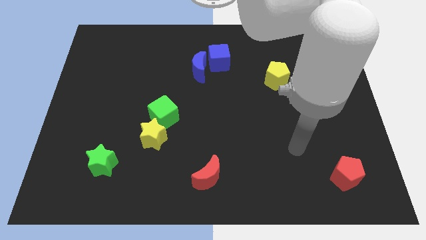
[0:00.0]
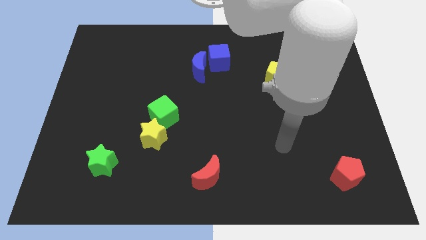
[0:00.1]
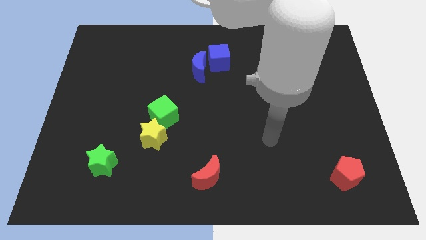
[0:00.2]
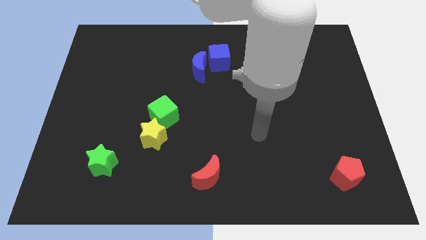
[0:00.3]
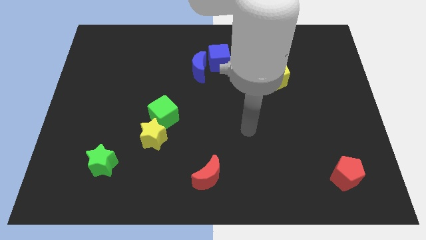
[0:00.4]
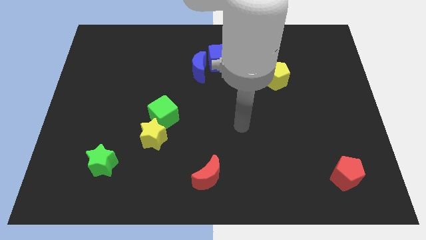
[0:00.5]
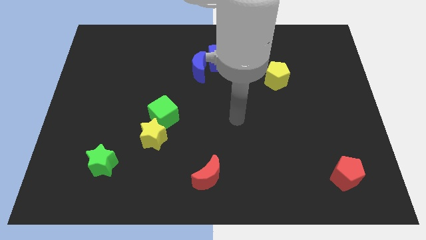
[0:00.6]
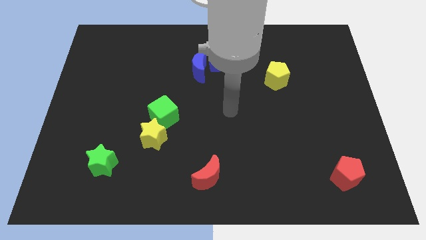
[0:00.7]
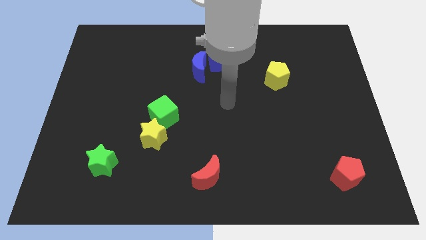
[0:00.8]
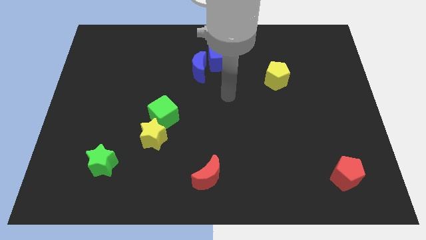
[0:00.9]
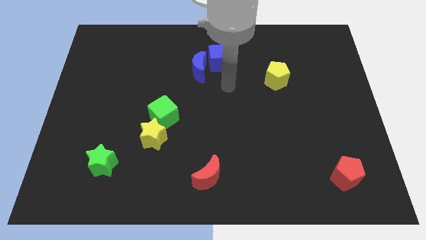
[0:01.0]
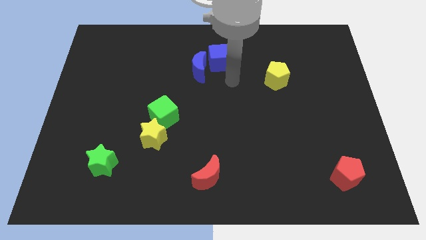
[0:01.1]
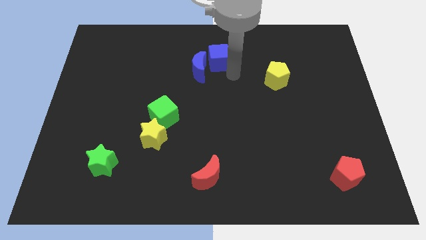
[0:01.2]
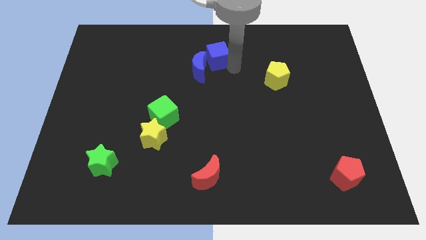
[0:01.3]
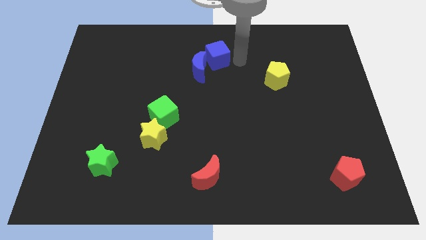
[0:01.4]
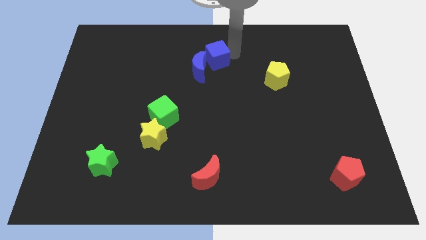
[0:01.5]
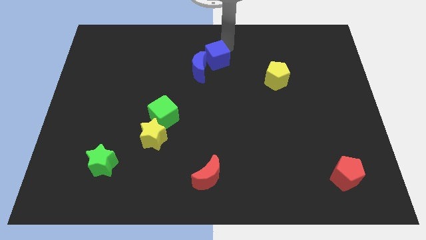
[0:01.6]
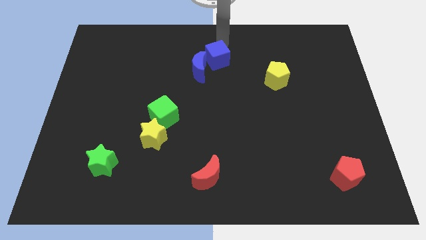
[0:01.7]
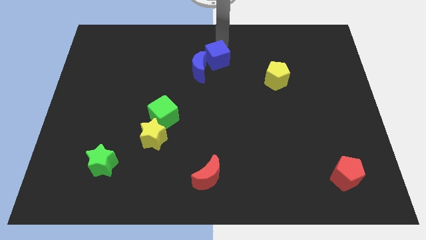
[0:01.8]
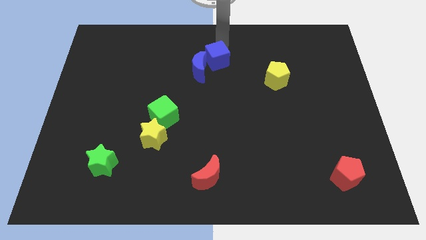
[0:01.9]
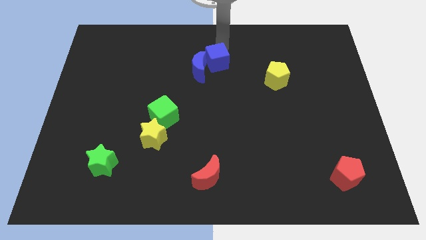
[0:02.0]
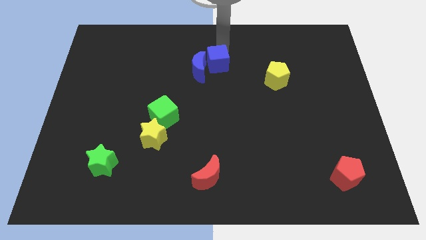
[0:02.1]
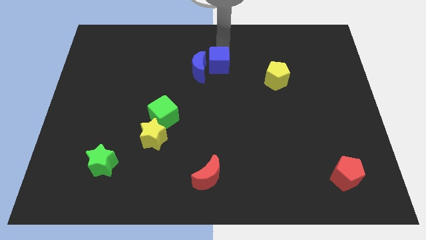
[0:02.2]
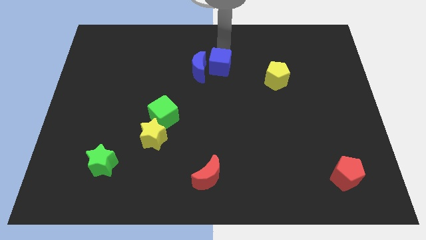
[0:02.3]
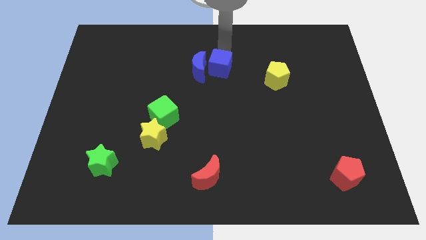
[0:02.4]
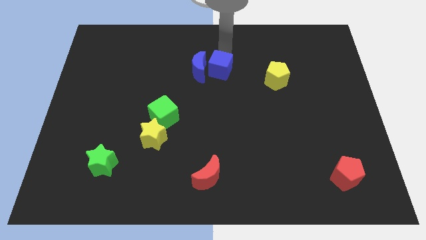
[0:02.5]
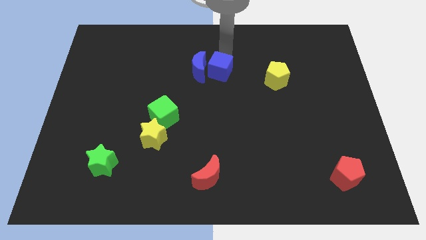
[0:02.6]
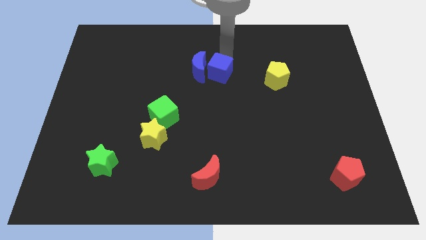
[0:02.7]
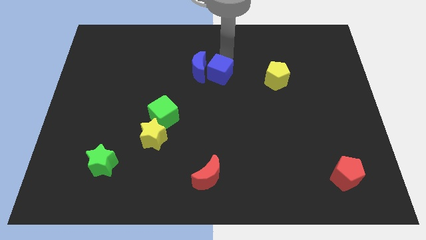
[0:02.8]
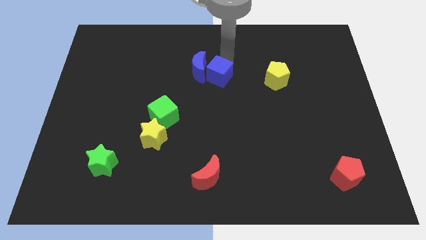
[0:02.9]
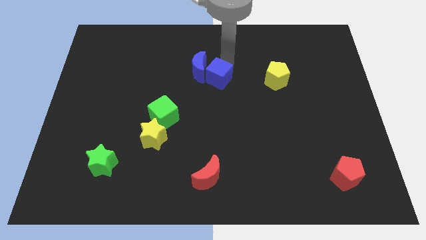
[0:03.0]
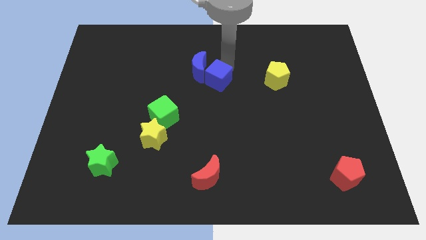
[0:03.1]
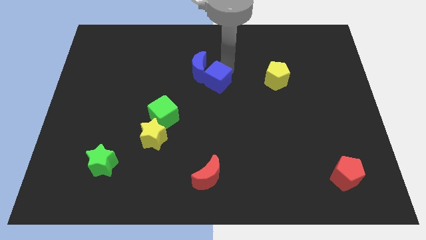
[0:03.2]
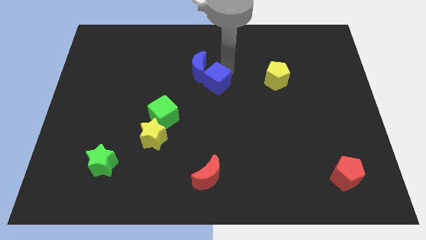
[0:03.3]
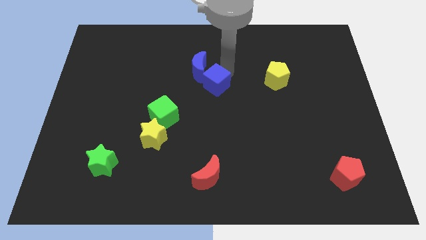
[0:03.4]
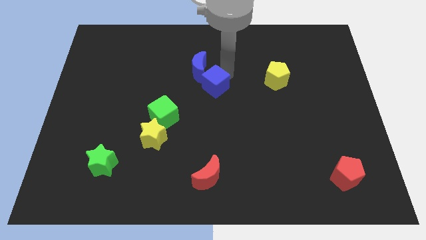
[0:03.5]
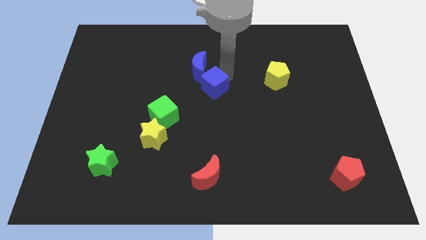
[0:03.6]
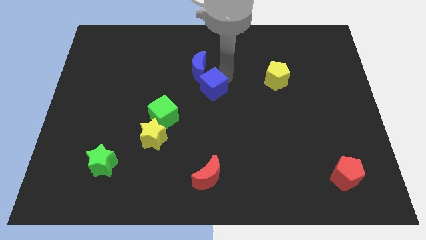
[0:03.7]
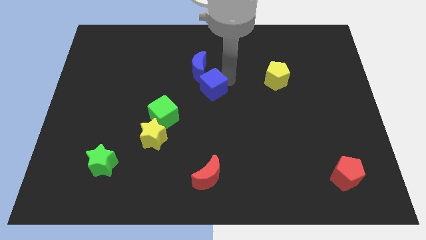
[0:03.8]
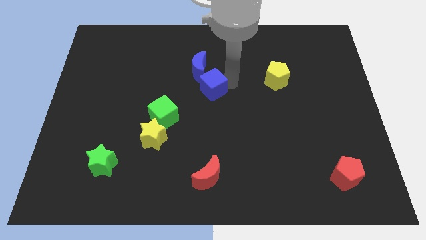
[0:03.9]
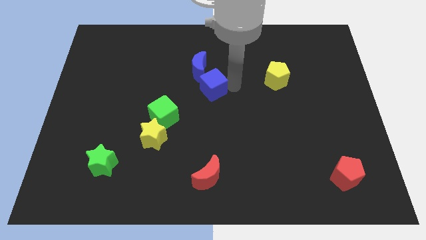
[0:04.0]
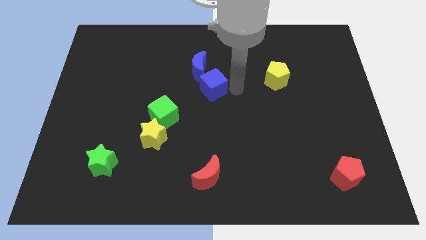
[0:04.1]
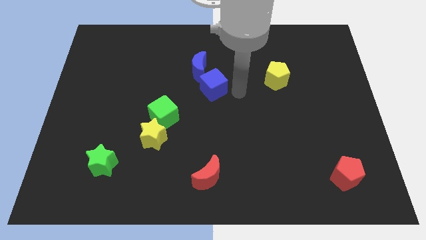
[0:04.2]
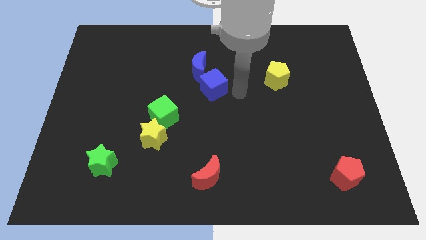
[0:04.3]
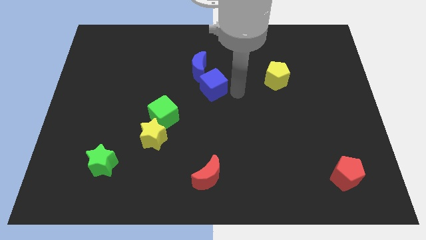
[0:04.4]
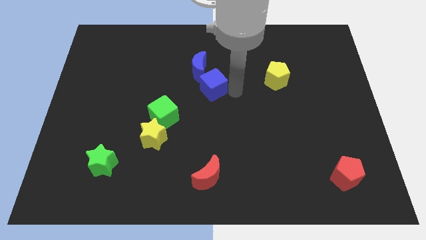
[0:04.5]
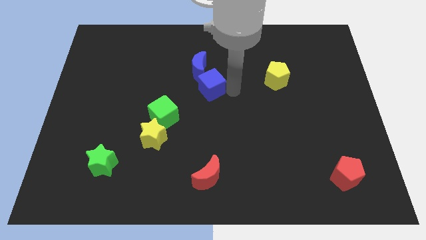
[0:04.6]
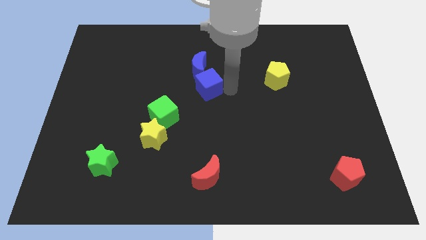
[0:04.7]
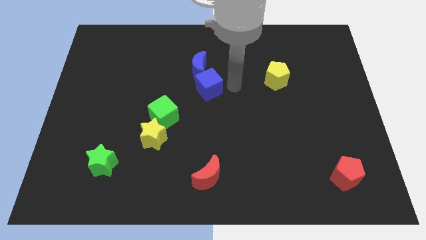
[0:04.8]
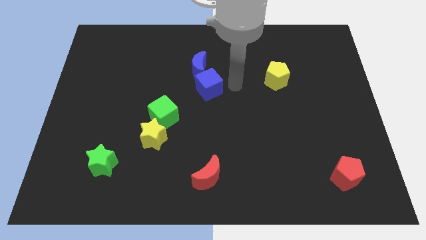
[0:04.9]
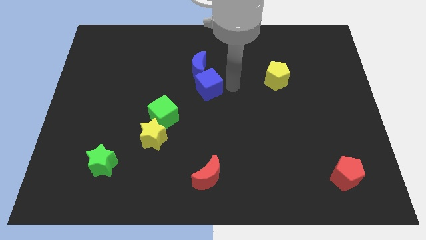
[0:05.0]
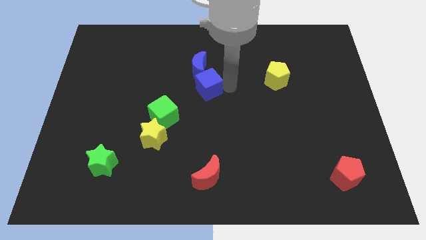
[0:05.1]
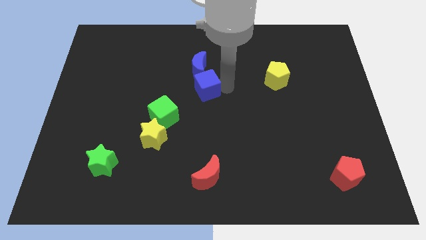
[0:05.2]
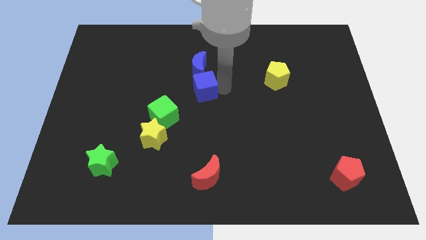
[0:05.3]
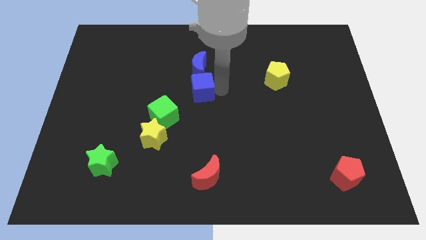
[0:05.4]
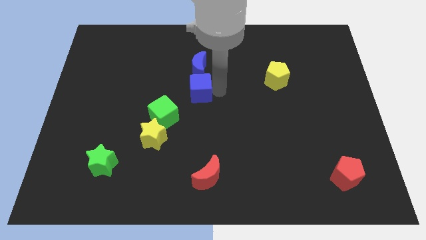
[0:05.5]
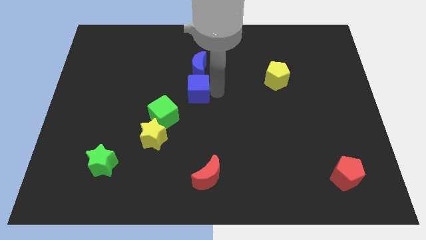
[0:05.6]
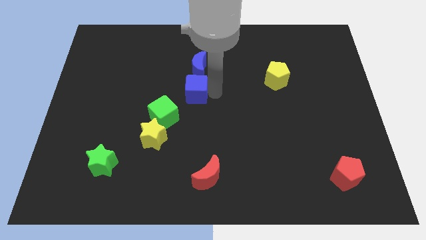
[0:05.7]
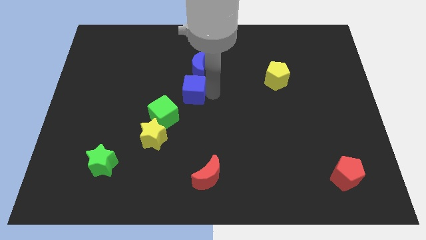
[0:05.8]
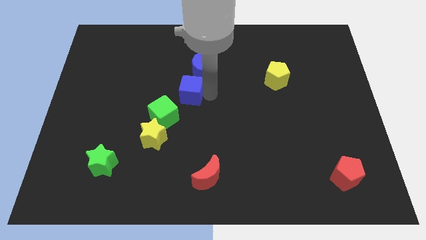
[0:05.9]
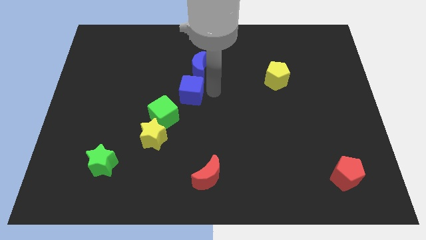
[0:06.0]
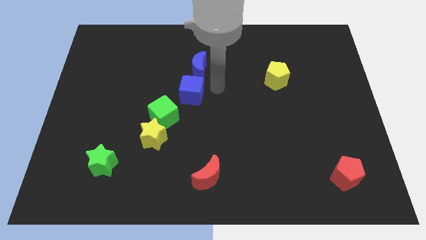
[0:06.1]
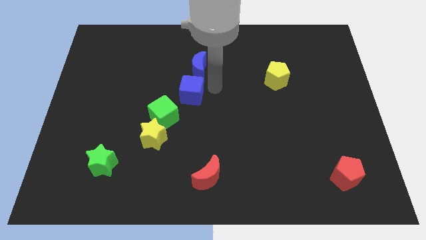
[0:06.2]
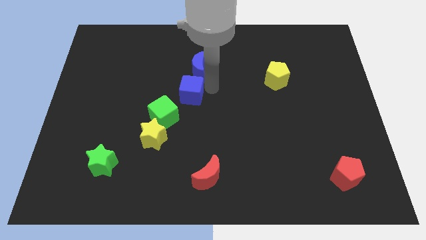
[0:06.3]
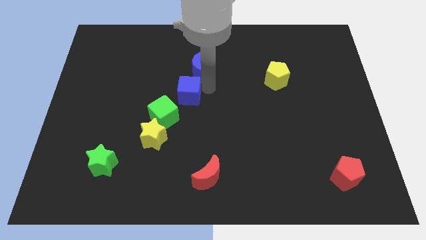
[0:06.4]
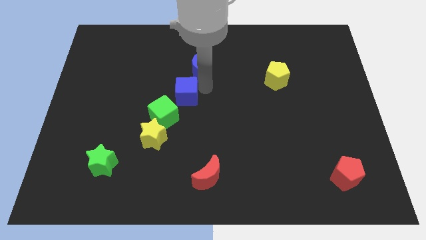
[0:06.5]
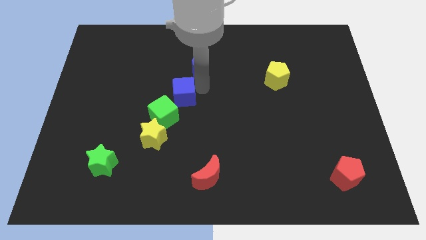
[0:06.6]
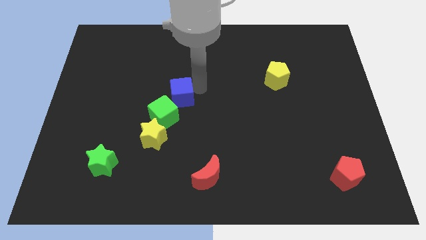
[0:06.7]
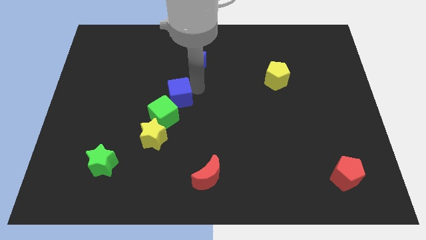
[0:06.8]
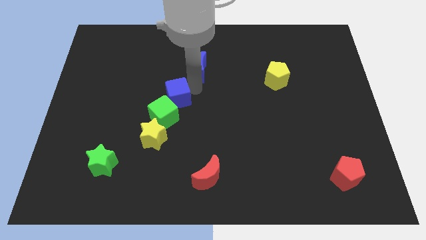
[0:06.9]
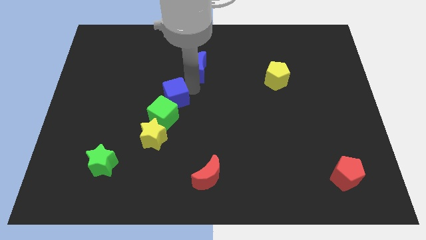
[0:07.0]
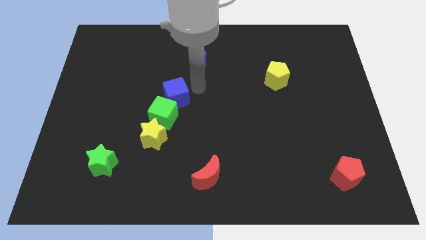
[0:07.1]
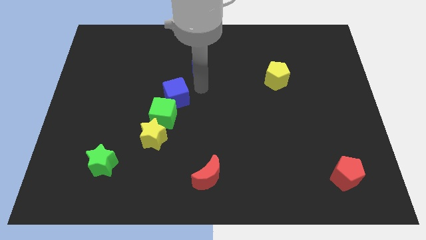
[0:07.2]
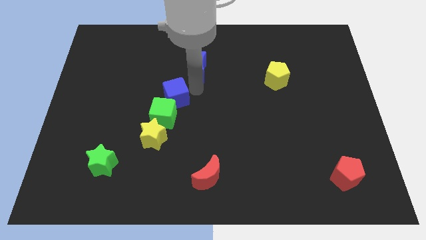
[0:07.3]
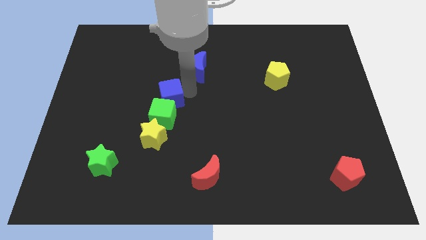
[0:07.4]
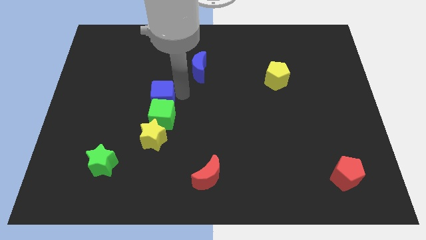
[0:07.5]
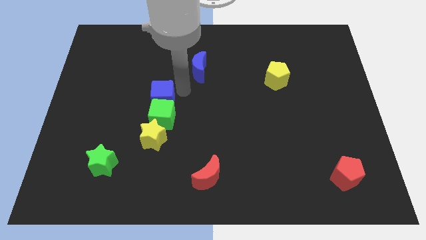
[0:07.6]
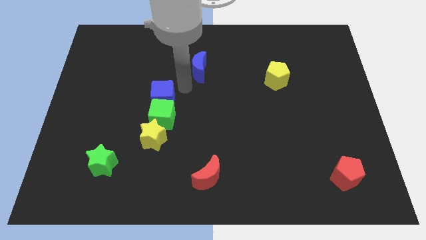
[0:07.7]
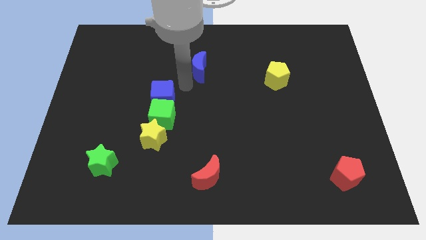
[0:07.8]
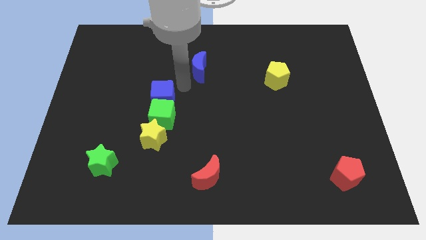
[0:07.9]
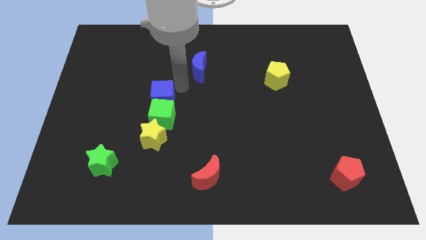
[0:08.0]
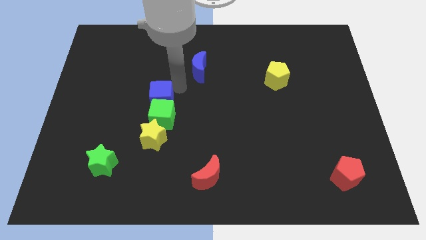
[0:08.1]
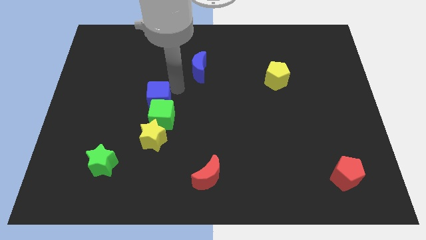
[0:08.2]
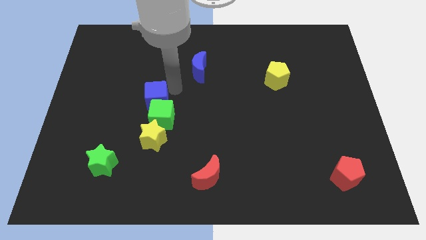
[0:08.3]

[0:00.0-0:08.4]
move the blue cube down and left diagonally
